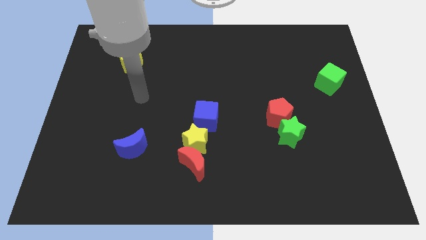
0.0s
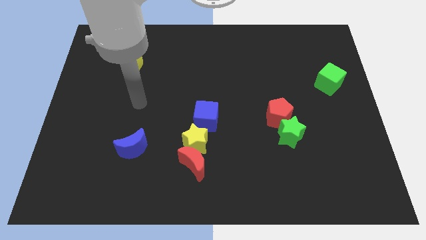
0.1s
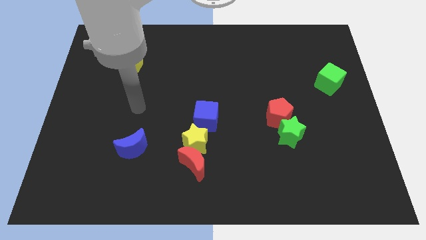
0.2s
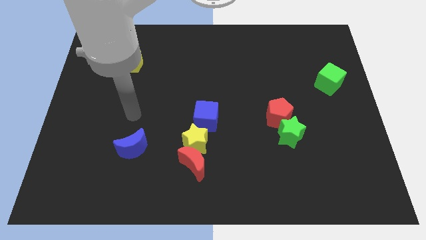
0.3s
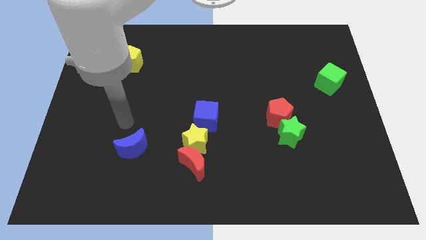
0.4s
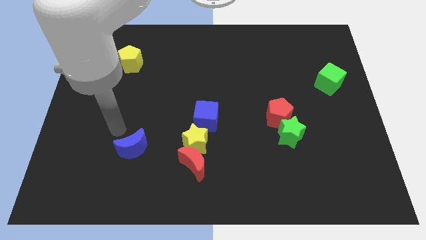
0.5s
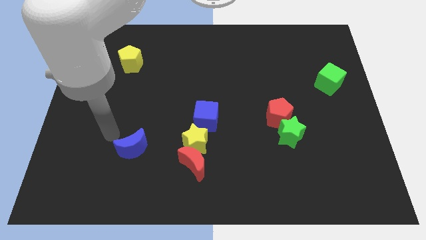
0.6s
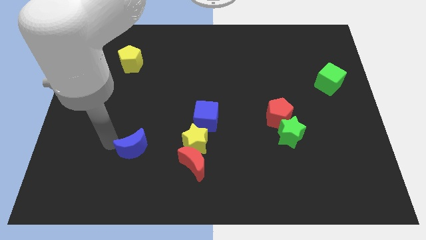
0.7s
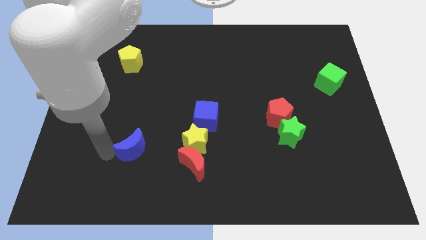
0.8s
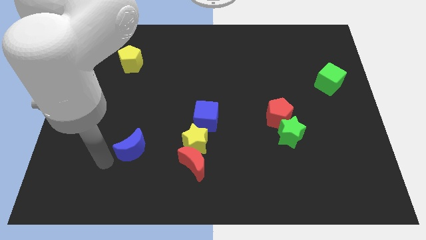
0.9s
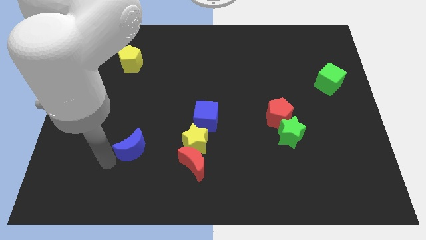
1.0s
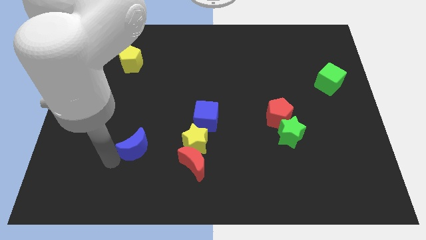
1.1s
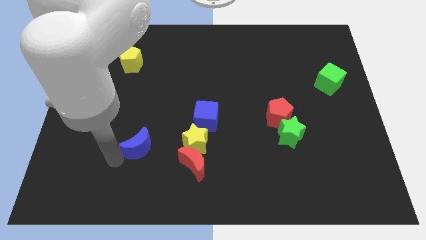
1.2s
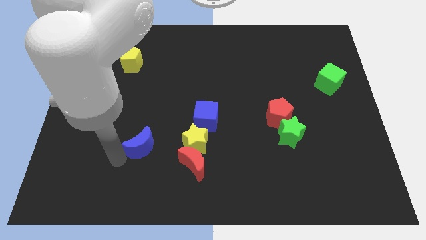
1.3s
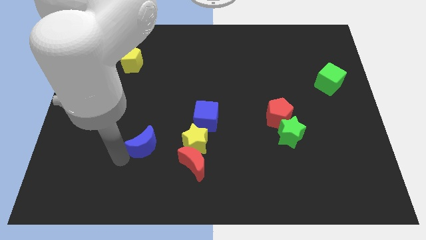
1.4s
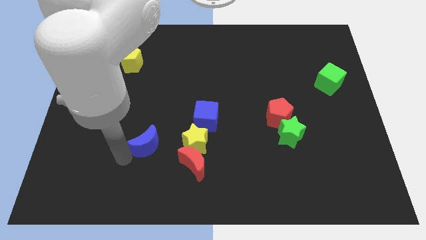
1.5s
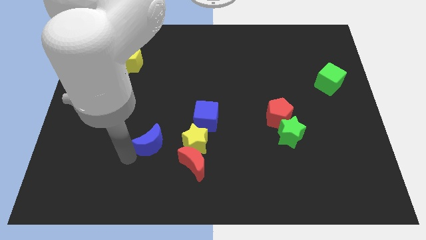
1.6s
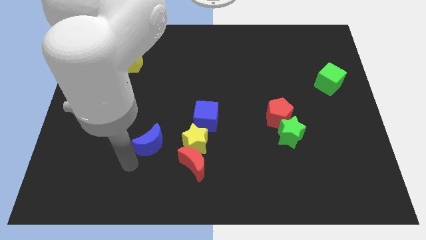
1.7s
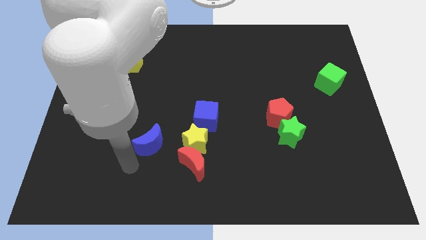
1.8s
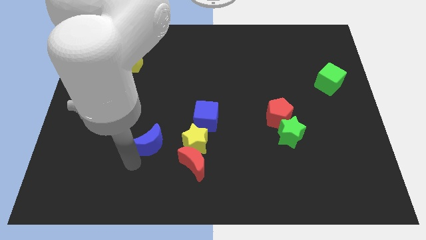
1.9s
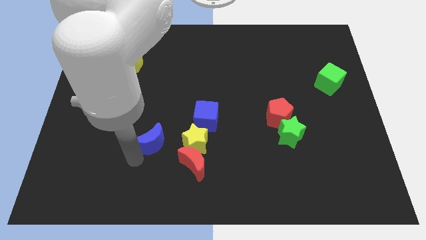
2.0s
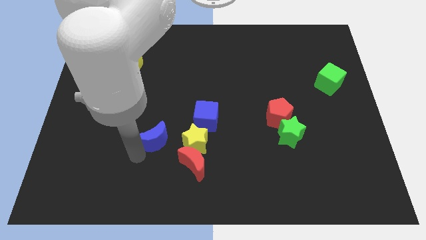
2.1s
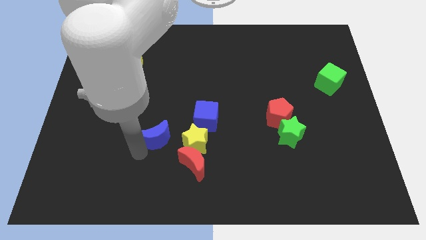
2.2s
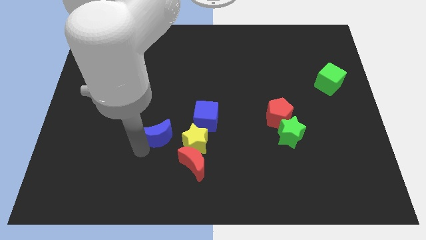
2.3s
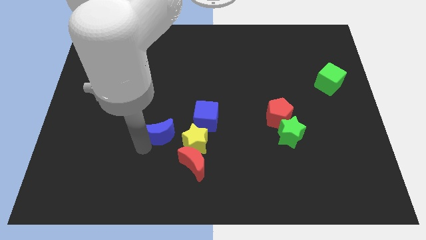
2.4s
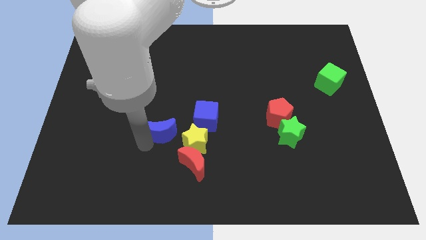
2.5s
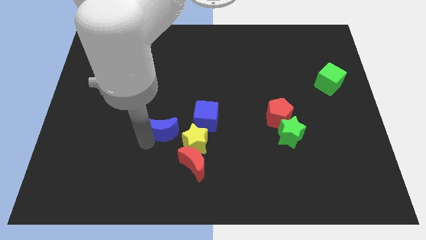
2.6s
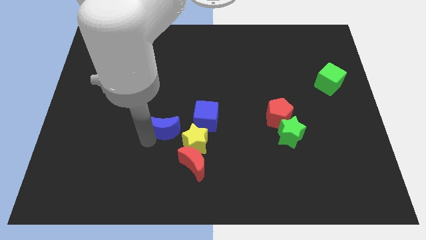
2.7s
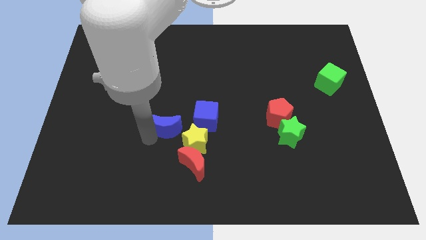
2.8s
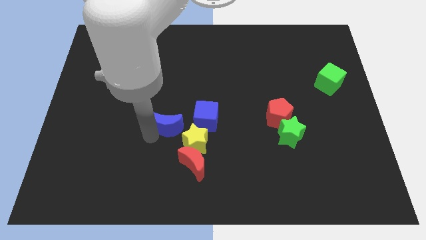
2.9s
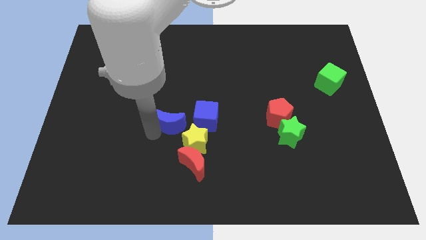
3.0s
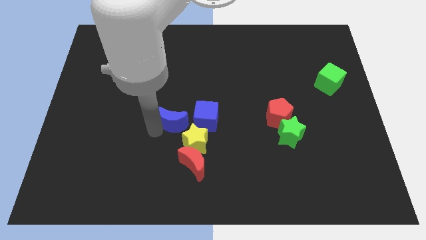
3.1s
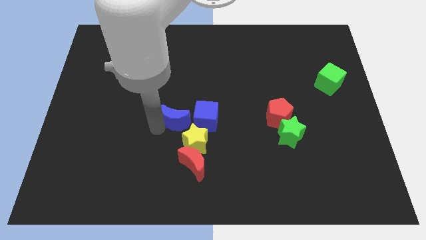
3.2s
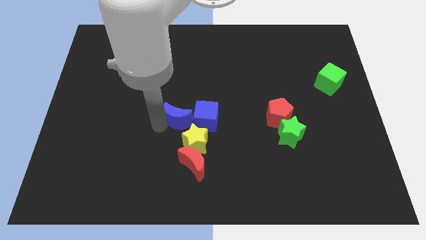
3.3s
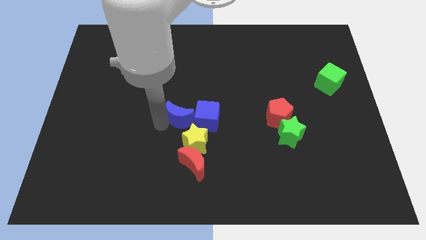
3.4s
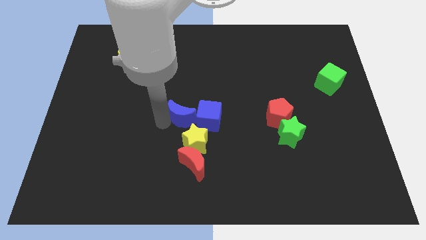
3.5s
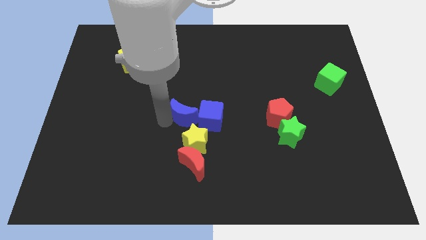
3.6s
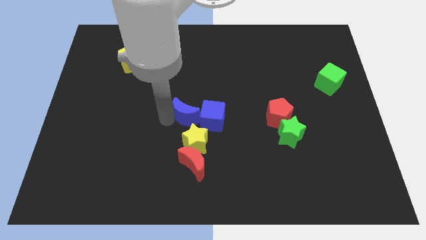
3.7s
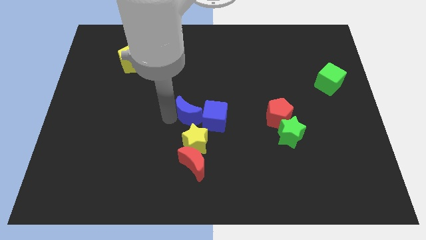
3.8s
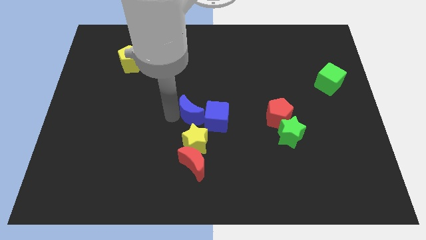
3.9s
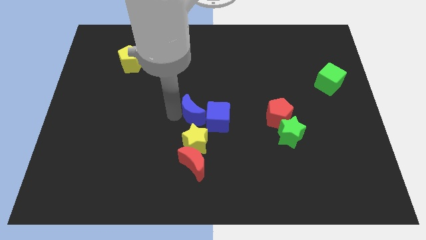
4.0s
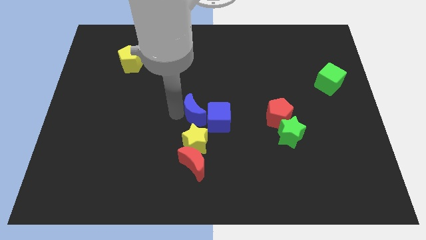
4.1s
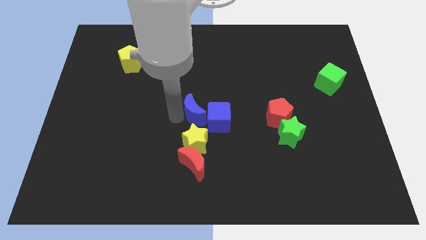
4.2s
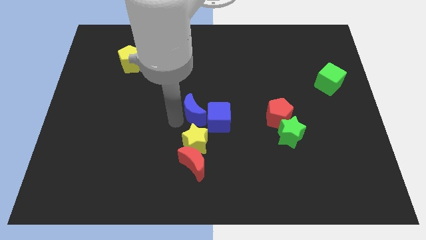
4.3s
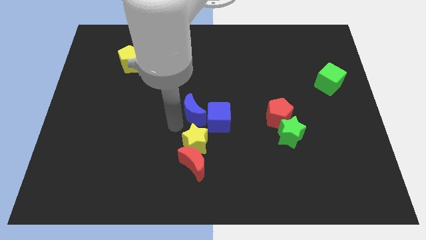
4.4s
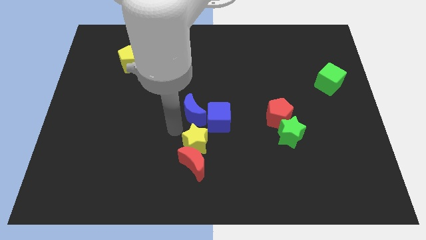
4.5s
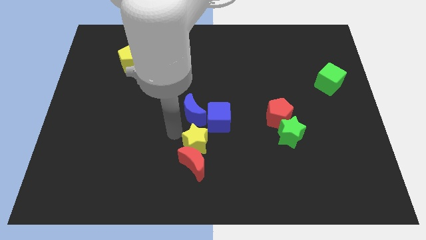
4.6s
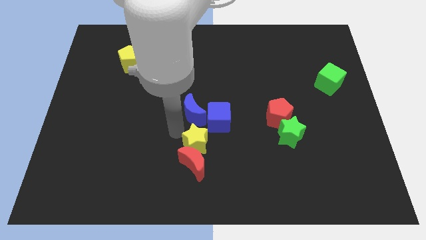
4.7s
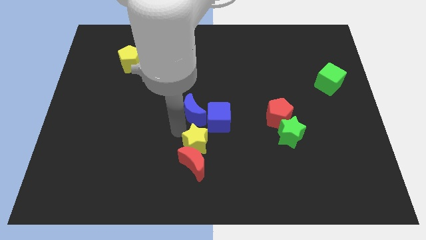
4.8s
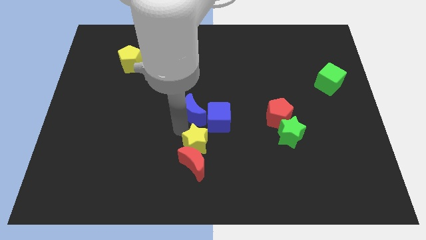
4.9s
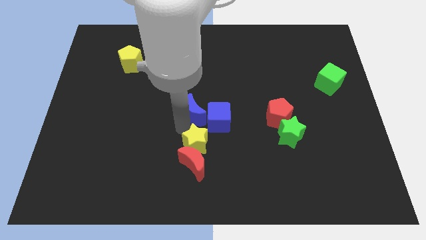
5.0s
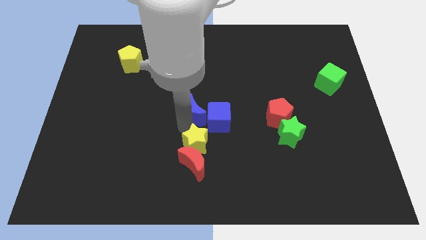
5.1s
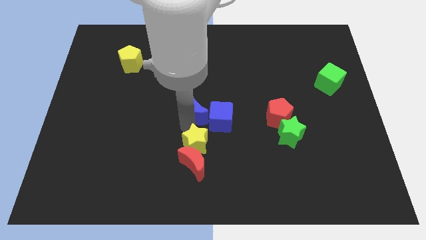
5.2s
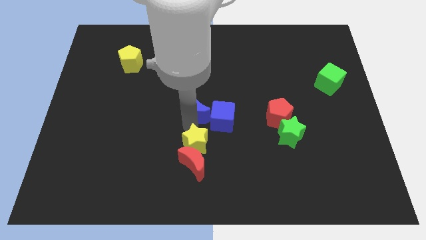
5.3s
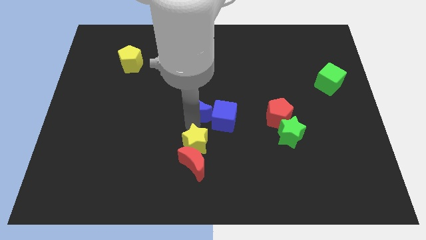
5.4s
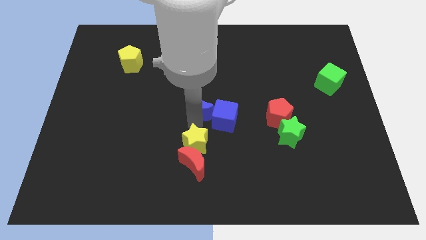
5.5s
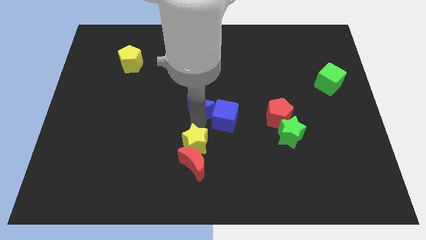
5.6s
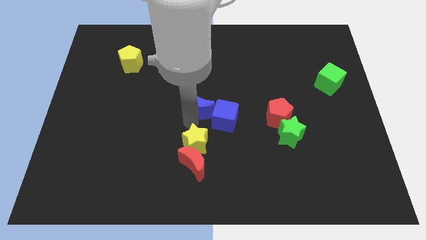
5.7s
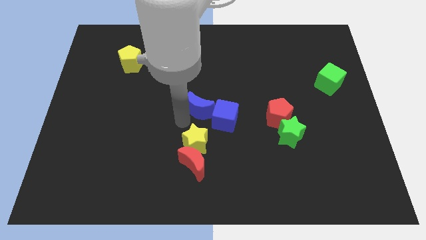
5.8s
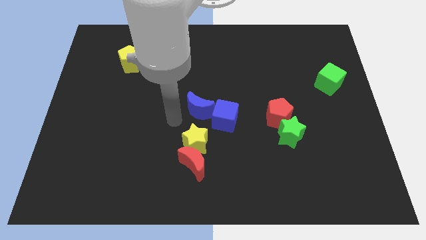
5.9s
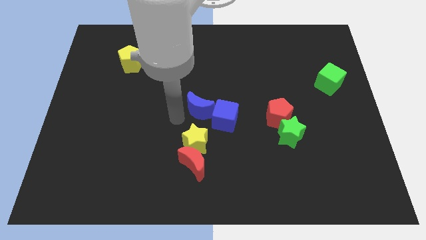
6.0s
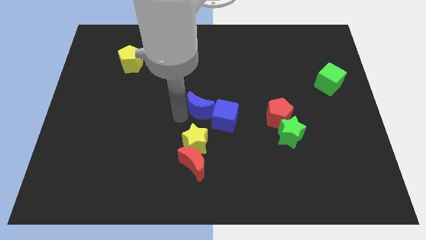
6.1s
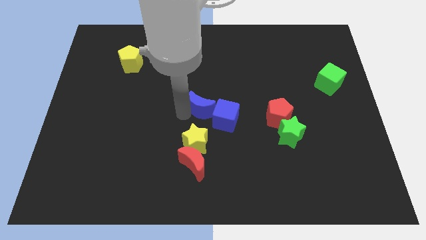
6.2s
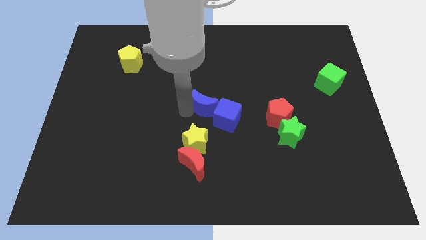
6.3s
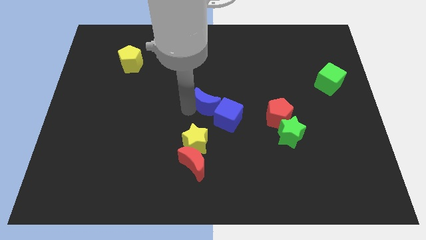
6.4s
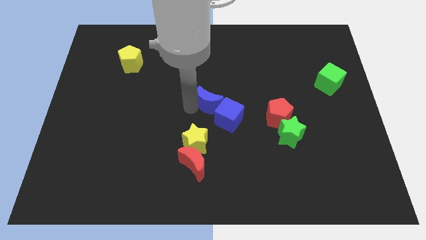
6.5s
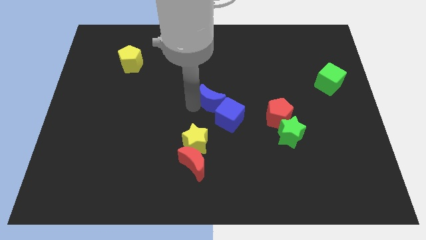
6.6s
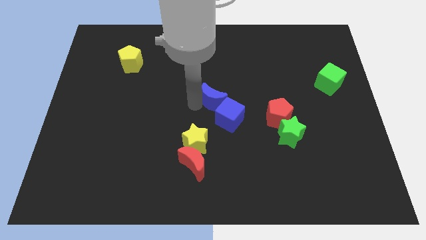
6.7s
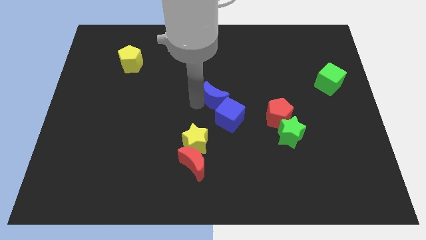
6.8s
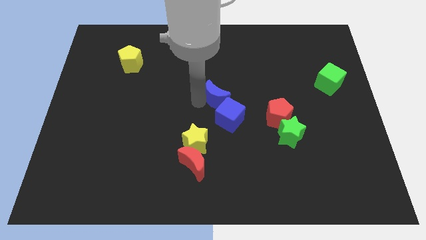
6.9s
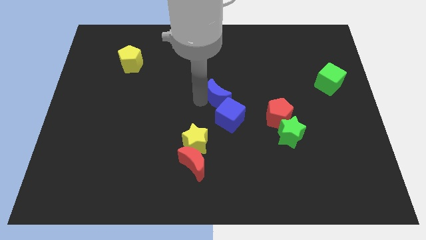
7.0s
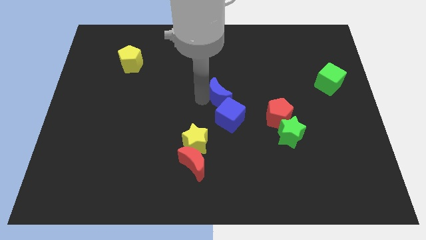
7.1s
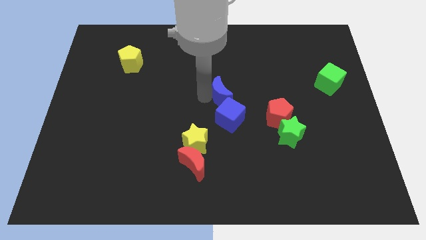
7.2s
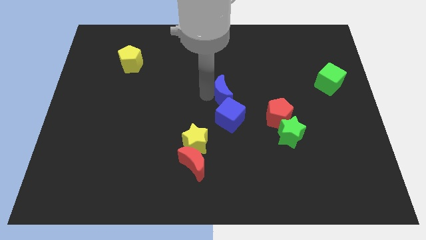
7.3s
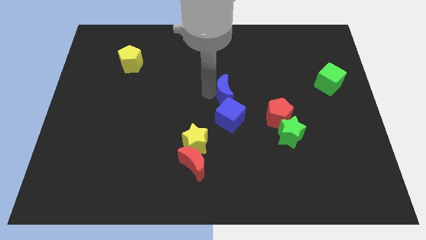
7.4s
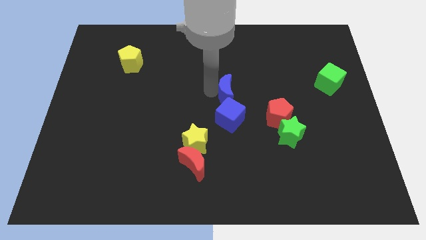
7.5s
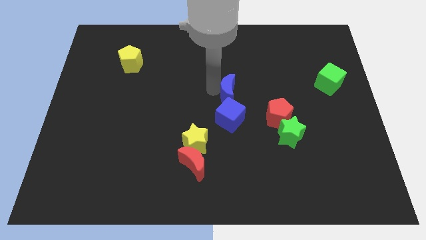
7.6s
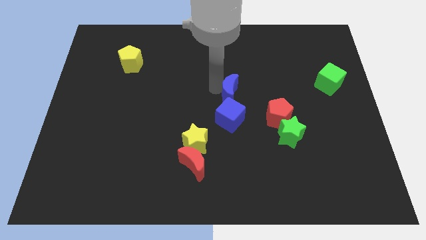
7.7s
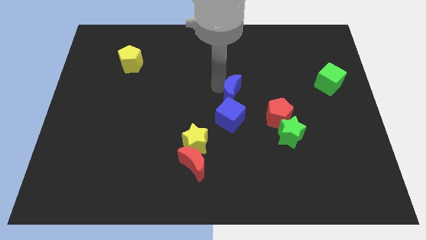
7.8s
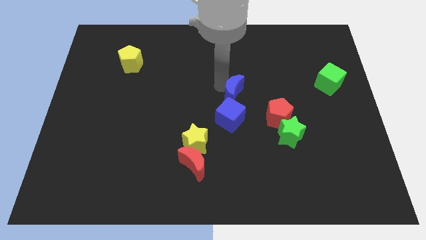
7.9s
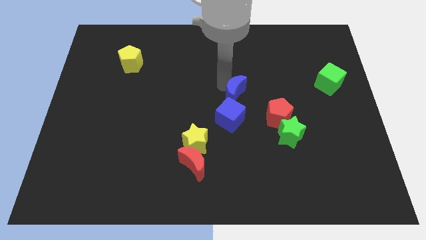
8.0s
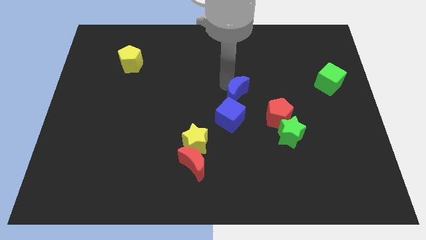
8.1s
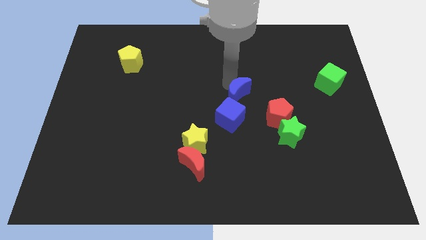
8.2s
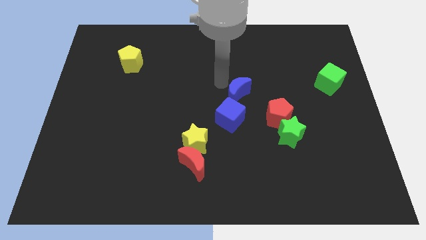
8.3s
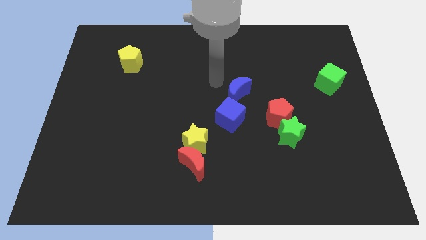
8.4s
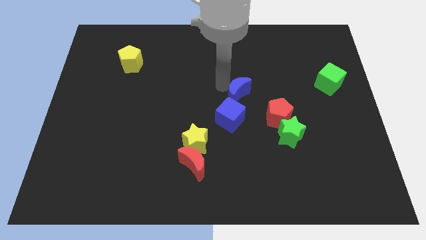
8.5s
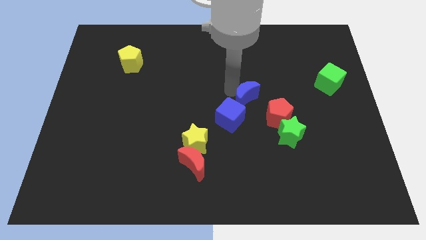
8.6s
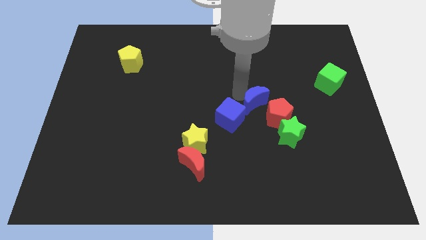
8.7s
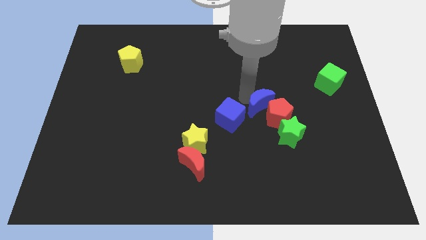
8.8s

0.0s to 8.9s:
slide the blue moon close to the red pentagon
